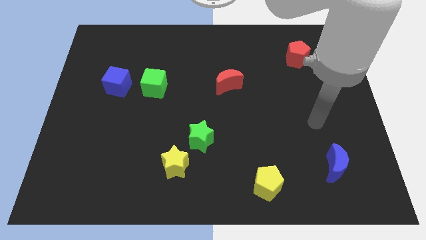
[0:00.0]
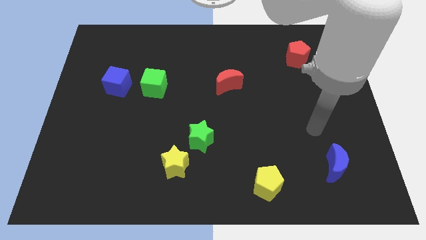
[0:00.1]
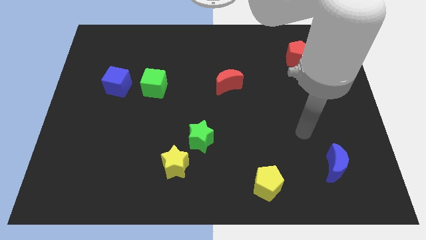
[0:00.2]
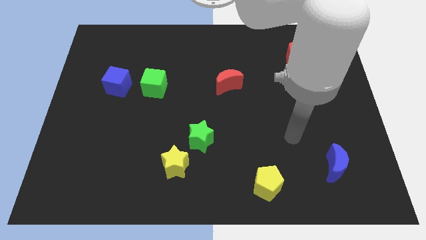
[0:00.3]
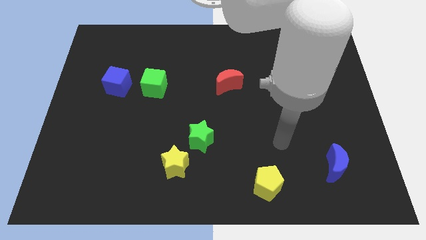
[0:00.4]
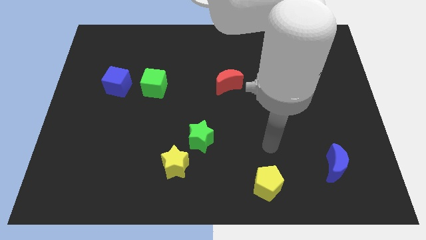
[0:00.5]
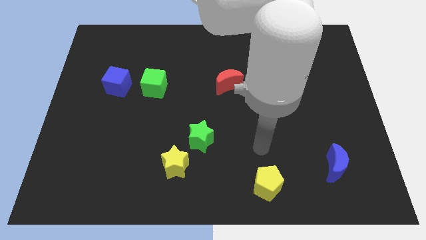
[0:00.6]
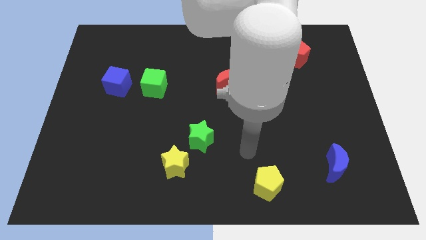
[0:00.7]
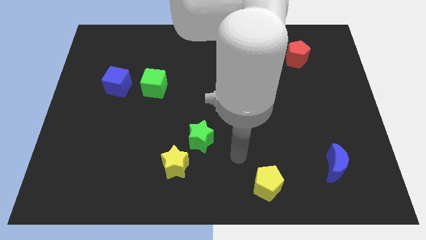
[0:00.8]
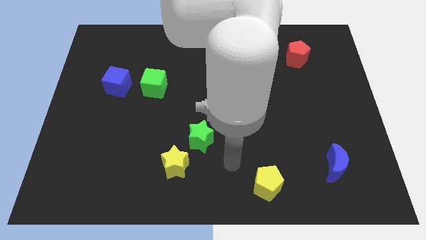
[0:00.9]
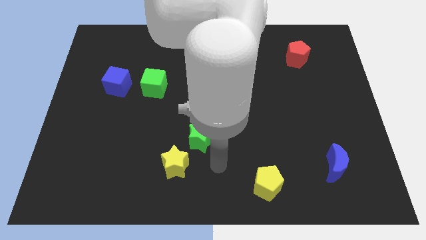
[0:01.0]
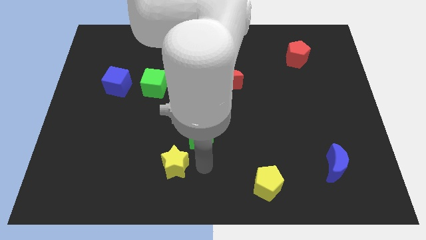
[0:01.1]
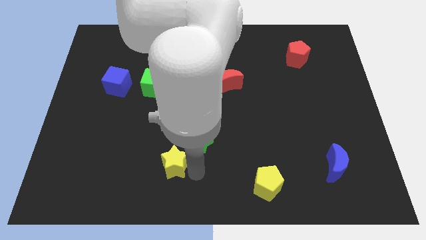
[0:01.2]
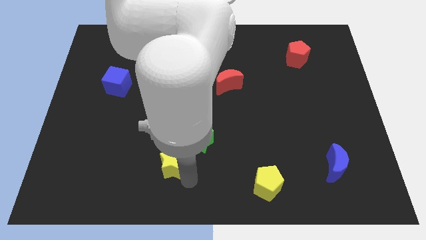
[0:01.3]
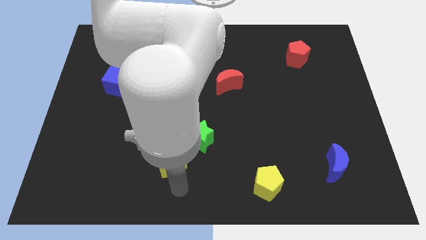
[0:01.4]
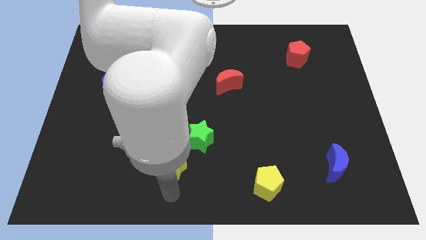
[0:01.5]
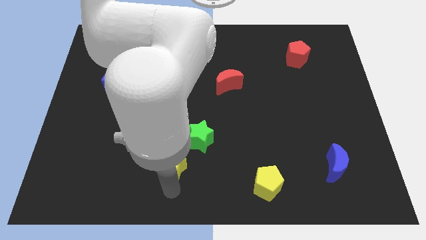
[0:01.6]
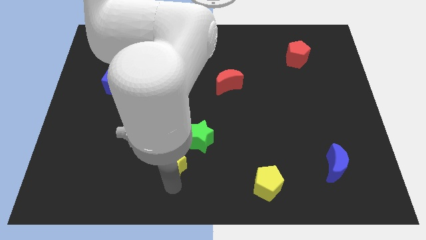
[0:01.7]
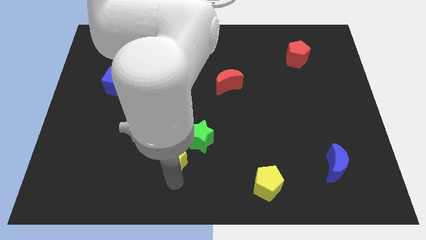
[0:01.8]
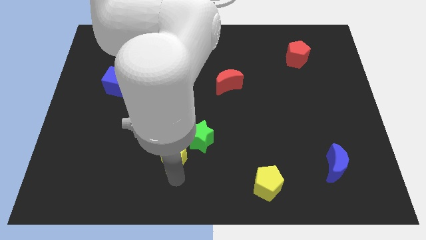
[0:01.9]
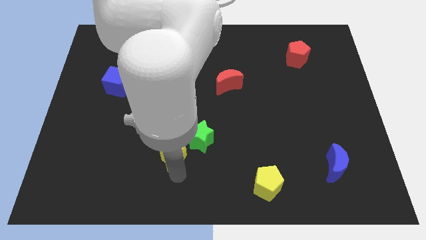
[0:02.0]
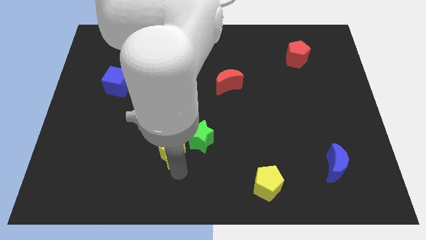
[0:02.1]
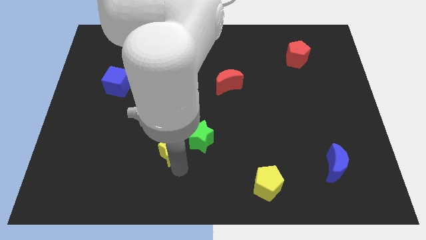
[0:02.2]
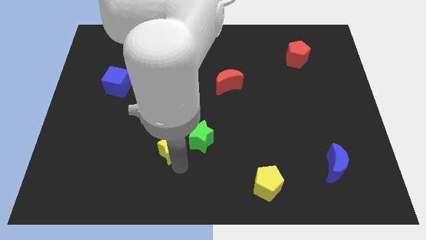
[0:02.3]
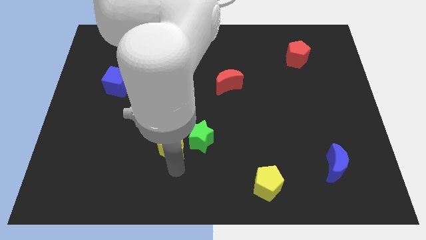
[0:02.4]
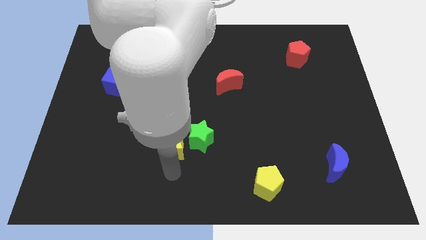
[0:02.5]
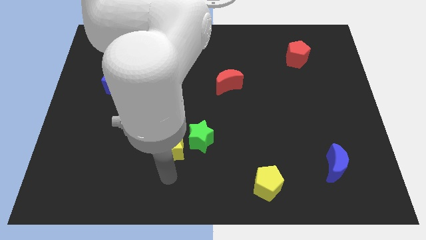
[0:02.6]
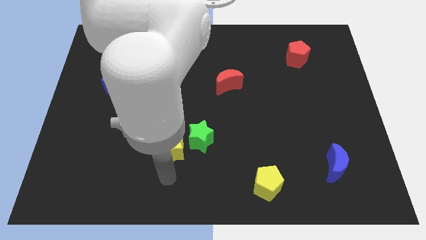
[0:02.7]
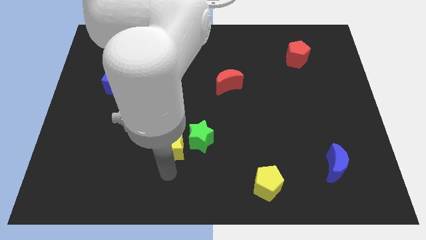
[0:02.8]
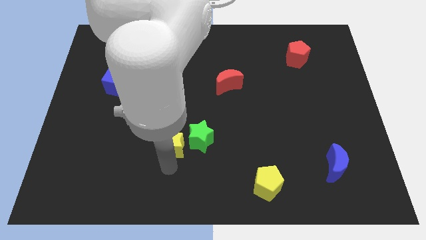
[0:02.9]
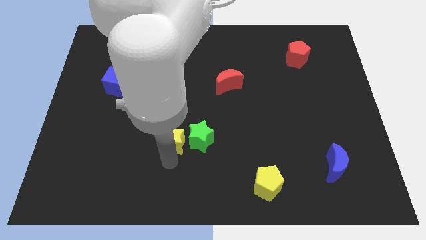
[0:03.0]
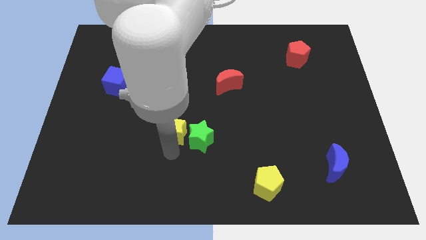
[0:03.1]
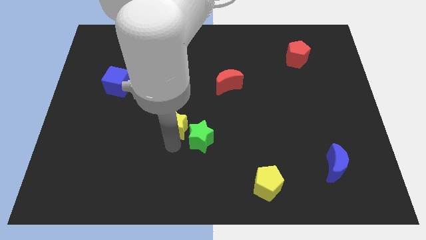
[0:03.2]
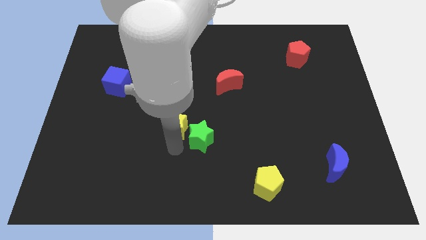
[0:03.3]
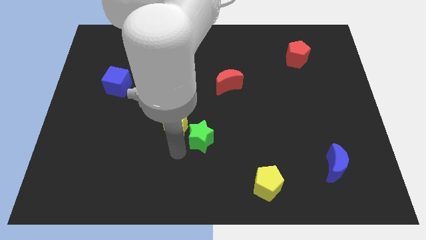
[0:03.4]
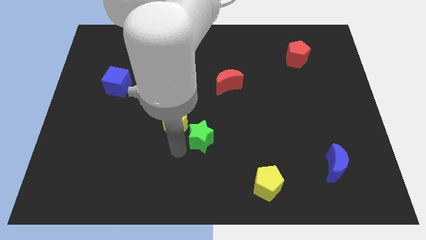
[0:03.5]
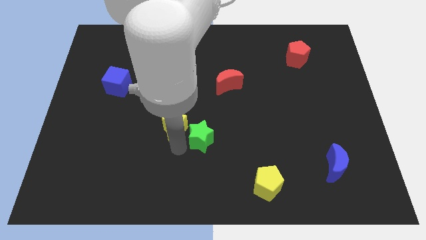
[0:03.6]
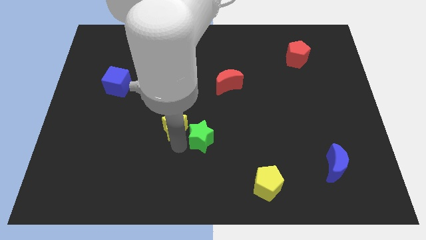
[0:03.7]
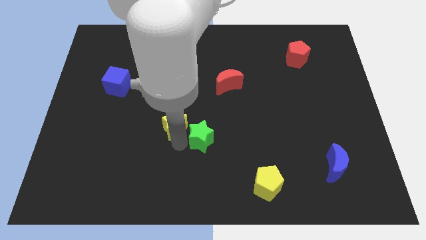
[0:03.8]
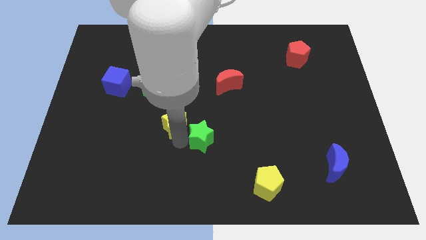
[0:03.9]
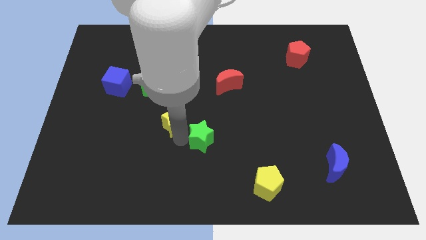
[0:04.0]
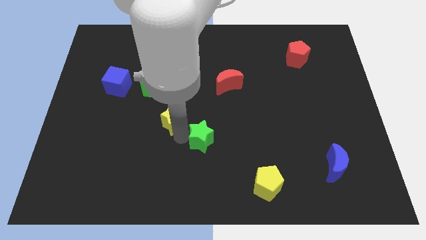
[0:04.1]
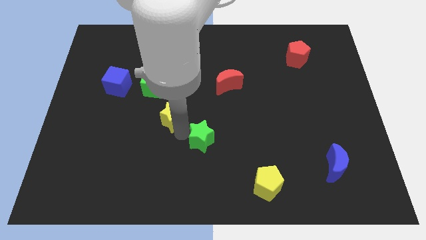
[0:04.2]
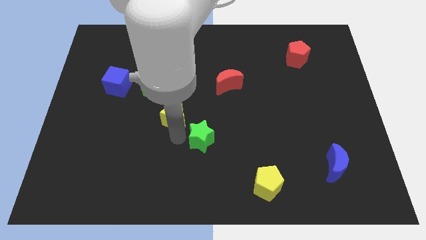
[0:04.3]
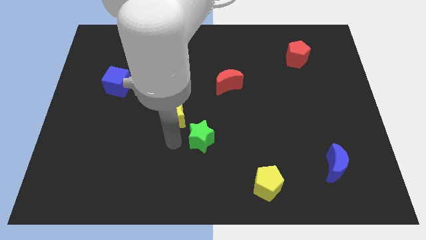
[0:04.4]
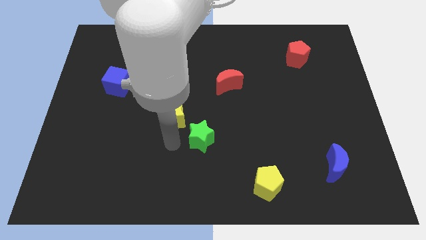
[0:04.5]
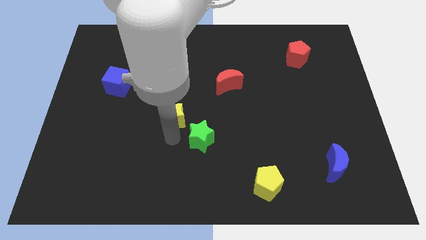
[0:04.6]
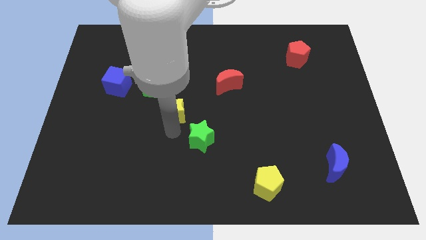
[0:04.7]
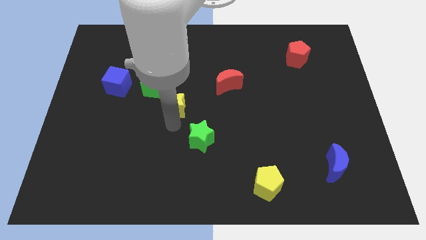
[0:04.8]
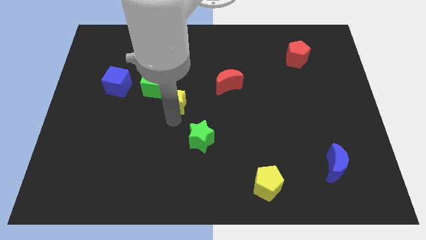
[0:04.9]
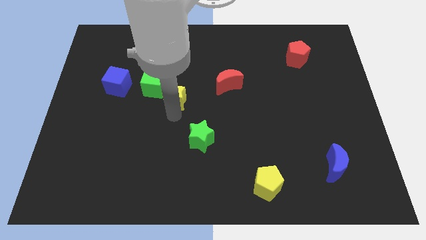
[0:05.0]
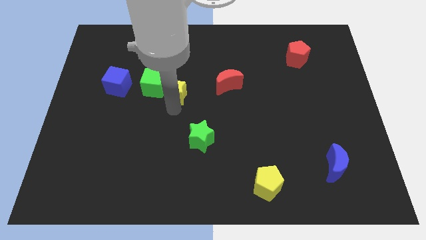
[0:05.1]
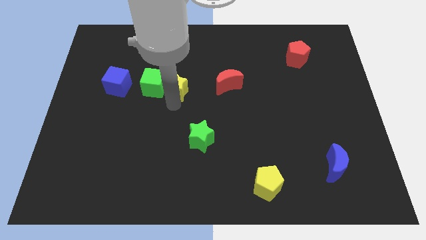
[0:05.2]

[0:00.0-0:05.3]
push the yellow star up

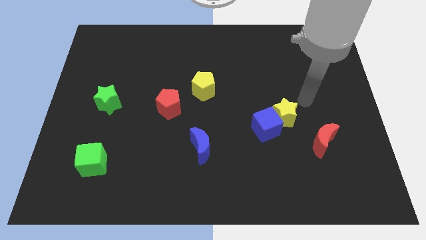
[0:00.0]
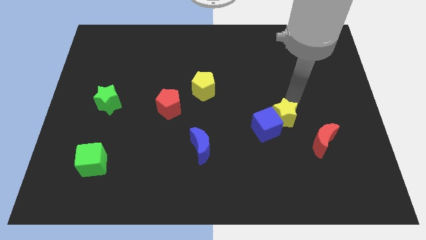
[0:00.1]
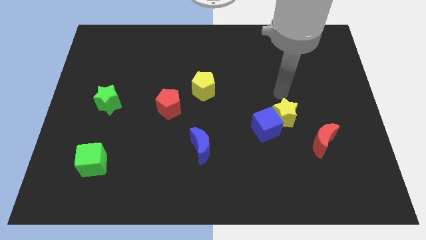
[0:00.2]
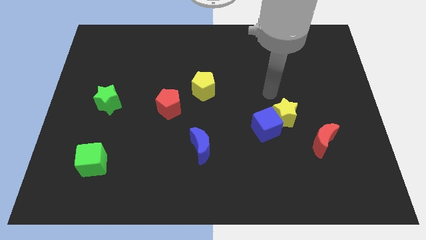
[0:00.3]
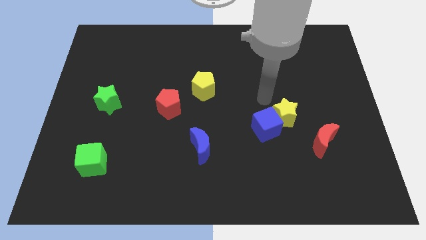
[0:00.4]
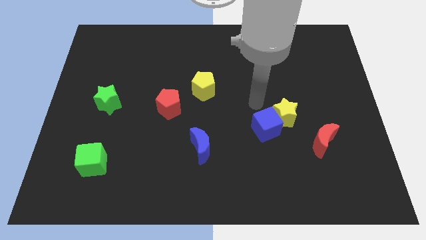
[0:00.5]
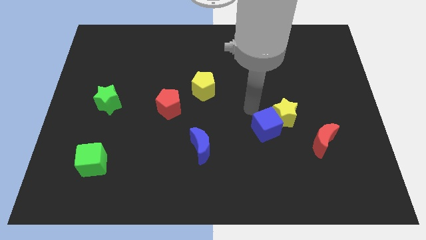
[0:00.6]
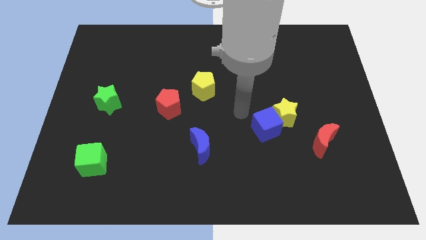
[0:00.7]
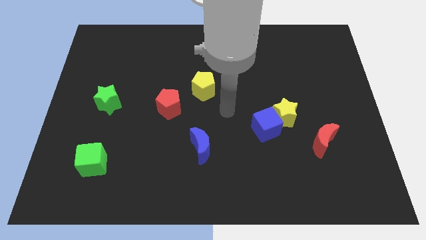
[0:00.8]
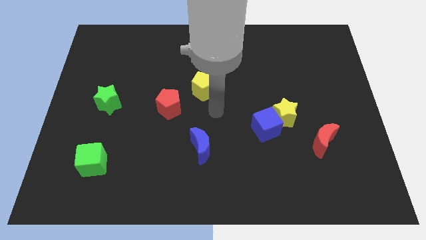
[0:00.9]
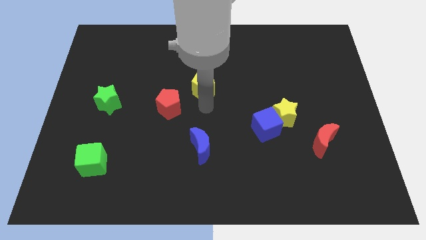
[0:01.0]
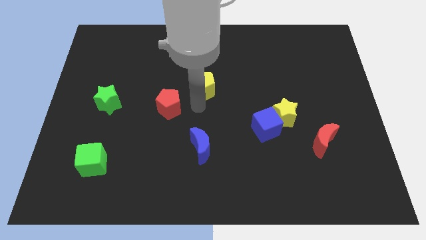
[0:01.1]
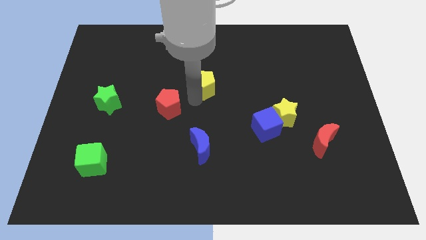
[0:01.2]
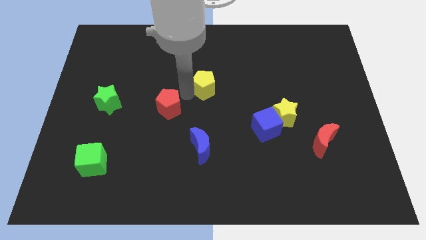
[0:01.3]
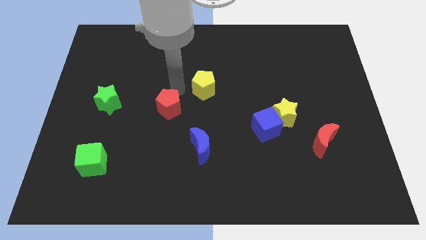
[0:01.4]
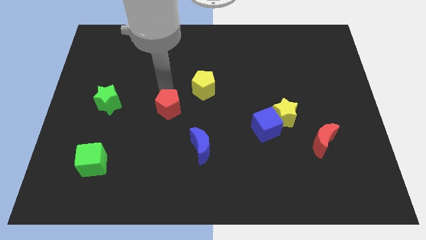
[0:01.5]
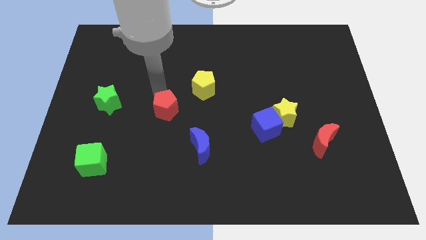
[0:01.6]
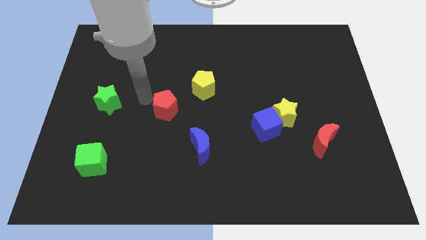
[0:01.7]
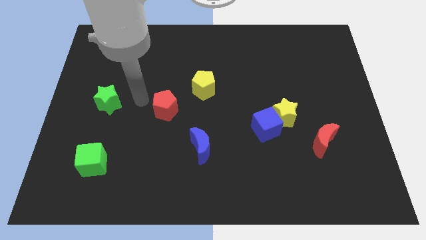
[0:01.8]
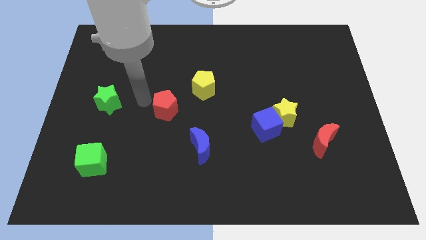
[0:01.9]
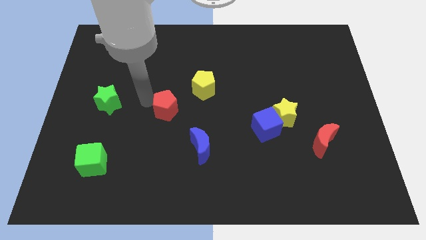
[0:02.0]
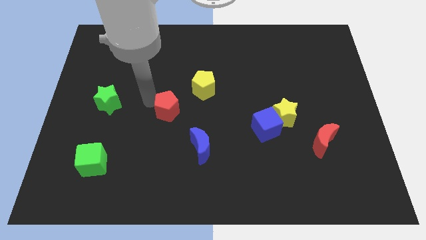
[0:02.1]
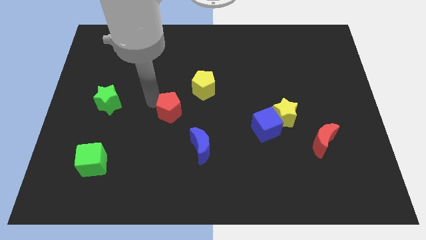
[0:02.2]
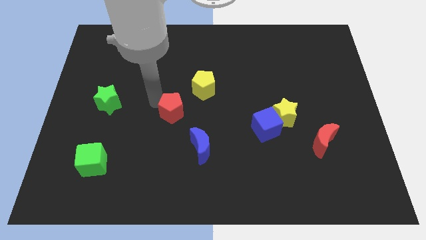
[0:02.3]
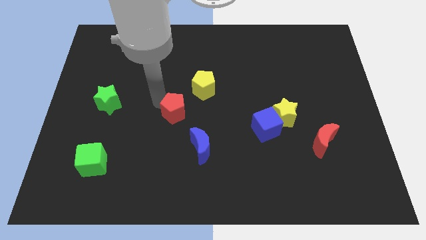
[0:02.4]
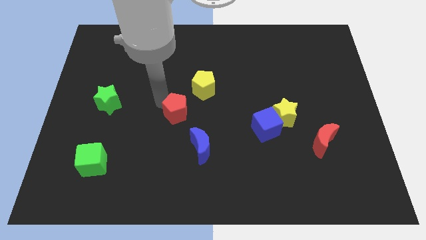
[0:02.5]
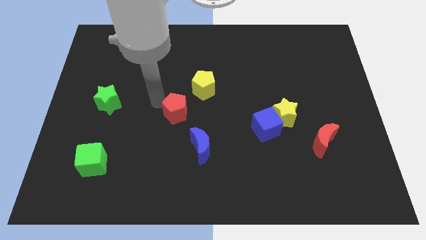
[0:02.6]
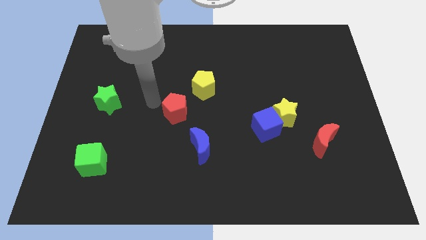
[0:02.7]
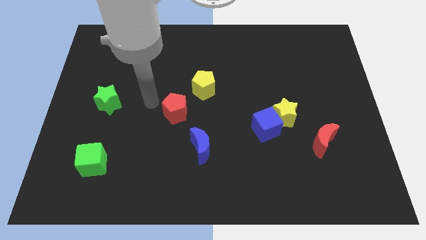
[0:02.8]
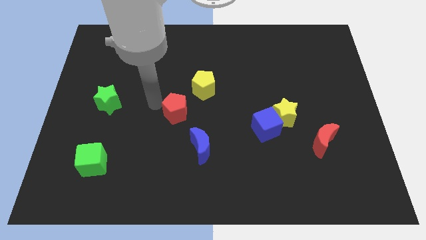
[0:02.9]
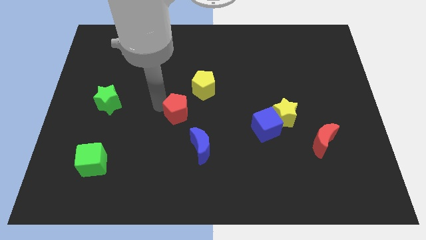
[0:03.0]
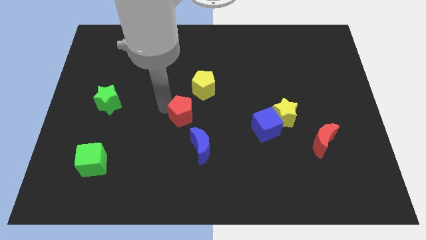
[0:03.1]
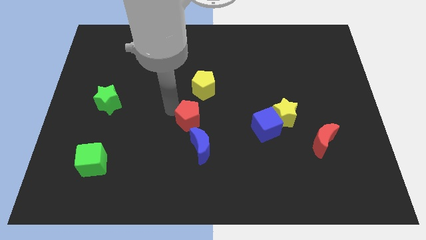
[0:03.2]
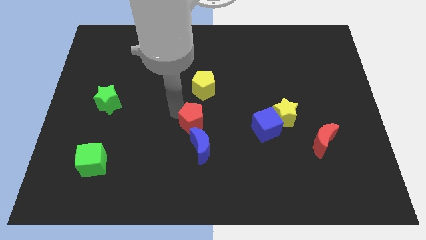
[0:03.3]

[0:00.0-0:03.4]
slide the red pentagon somewhat diagonally downwards and right
